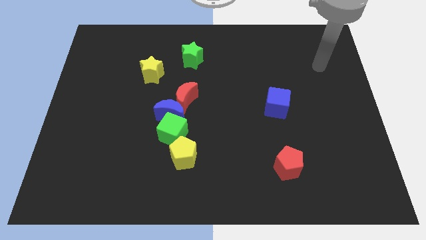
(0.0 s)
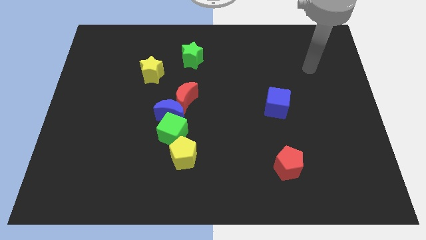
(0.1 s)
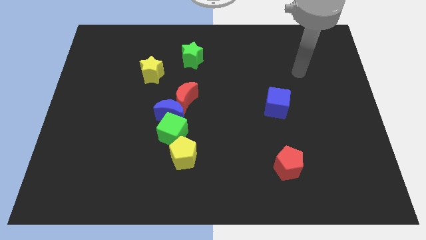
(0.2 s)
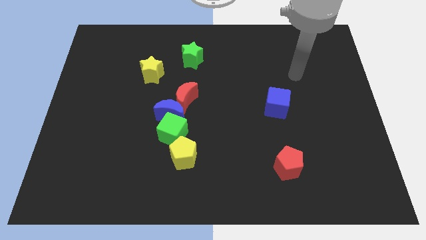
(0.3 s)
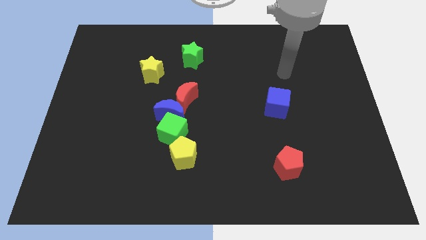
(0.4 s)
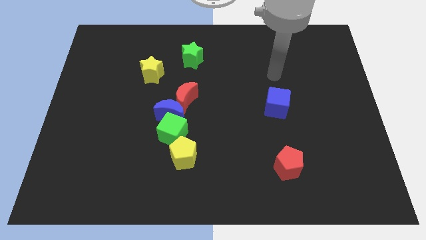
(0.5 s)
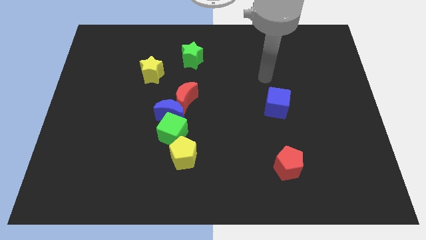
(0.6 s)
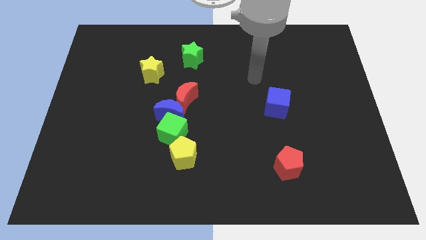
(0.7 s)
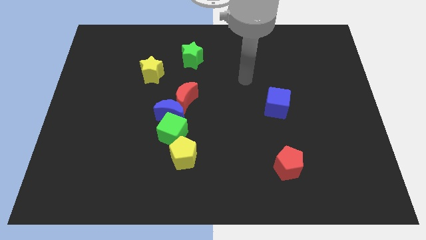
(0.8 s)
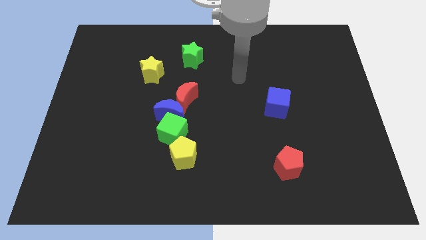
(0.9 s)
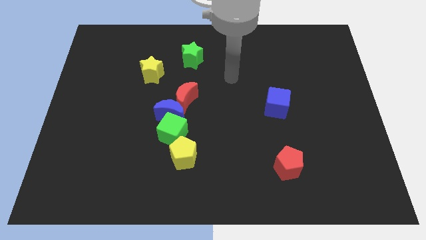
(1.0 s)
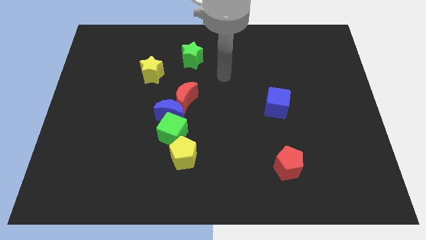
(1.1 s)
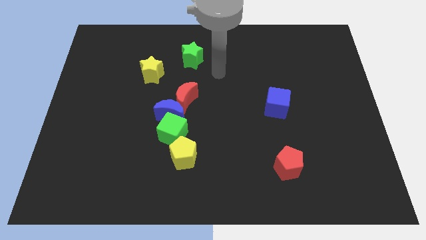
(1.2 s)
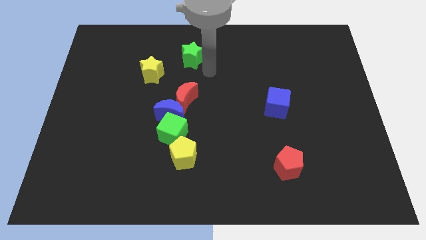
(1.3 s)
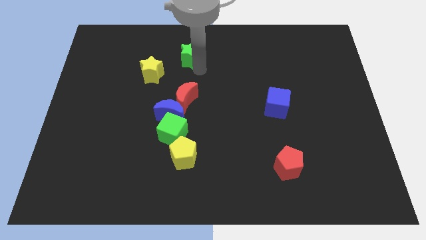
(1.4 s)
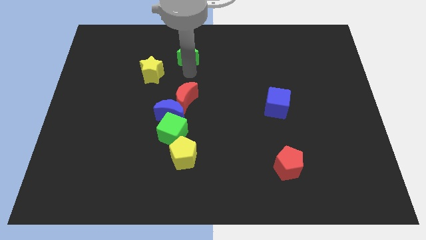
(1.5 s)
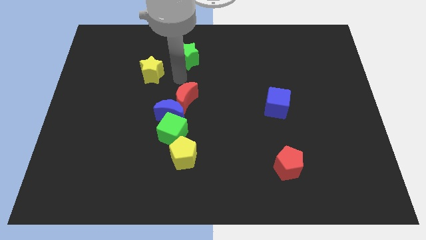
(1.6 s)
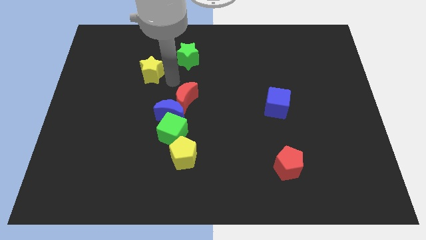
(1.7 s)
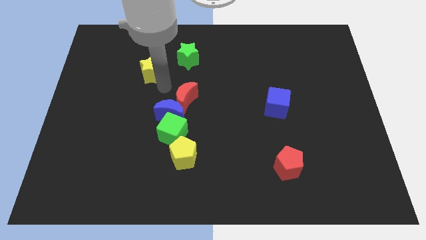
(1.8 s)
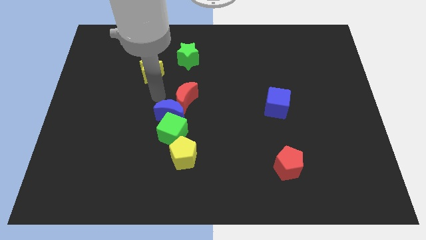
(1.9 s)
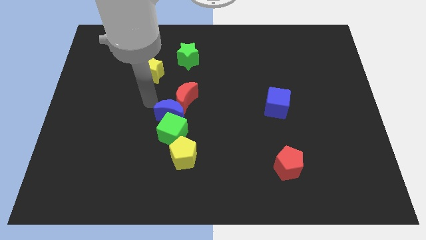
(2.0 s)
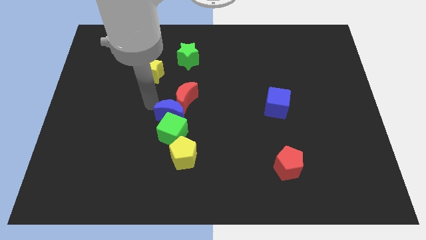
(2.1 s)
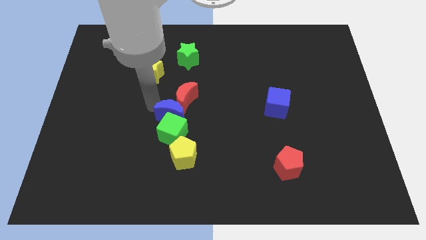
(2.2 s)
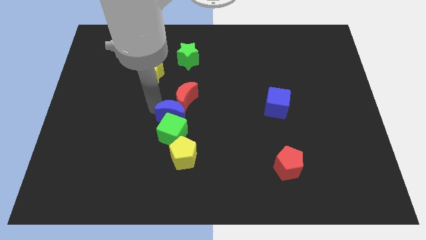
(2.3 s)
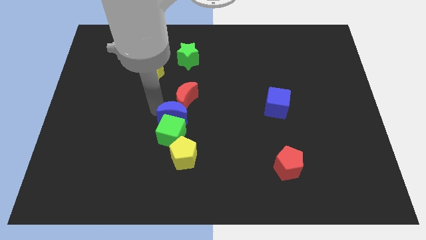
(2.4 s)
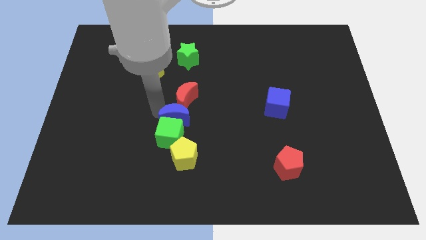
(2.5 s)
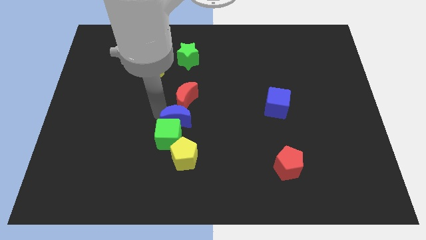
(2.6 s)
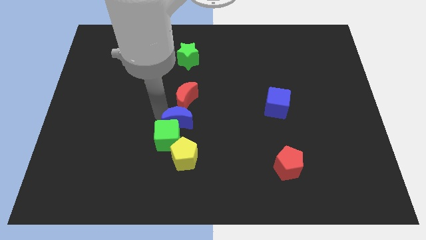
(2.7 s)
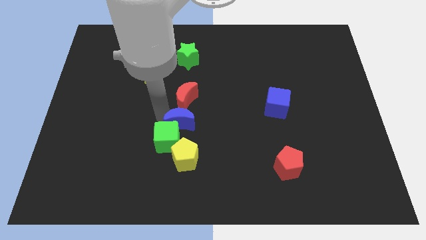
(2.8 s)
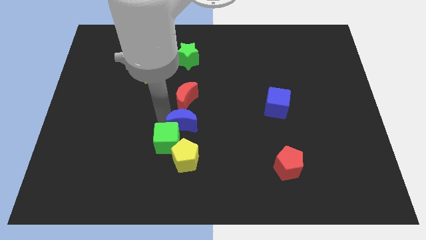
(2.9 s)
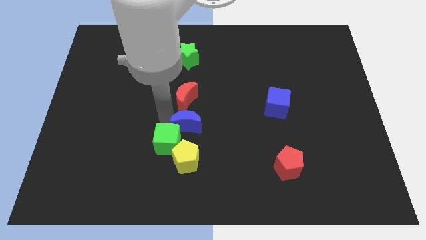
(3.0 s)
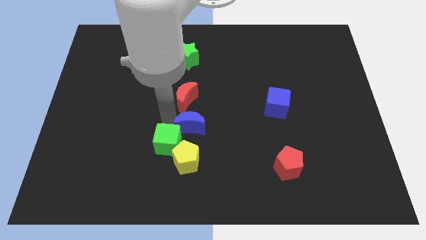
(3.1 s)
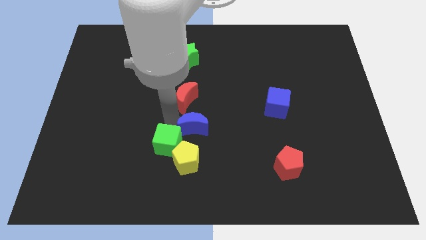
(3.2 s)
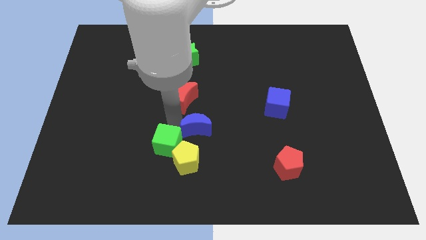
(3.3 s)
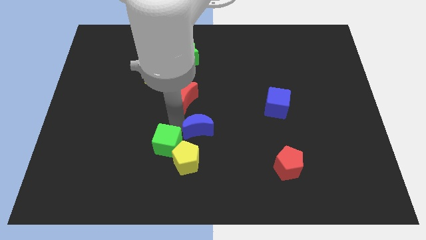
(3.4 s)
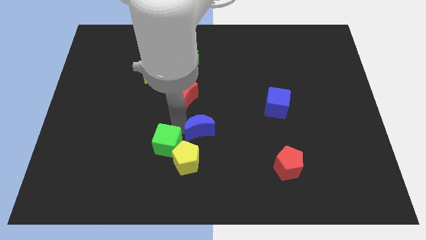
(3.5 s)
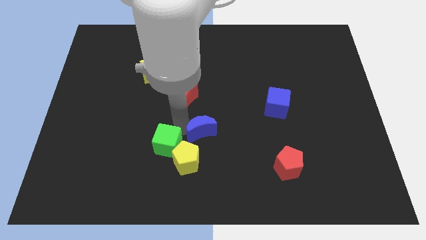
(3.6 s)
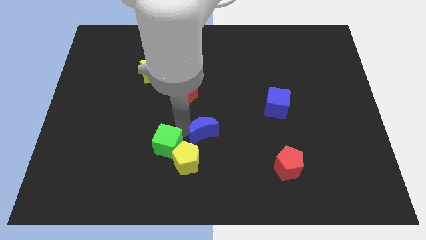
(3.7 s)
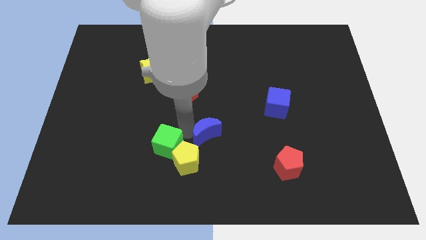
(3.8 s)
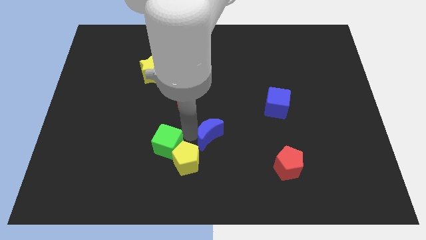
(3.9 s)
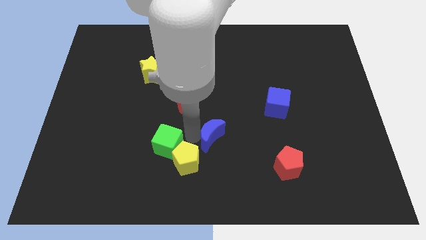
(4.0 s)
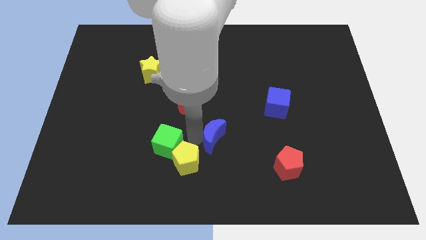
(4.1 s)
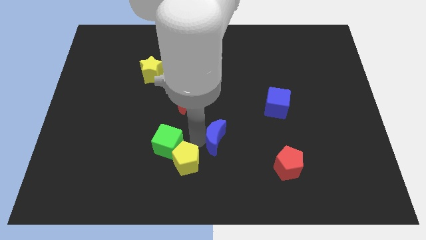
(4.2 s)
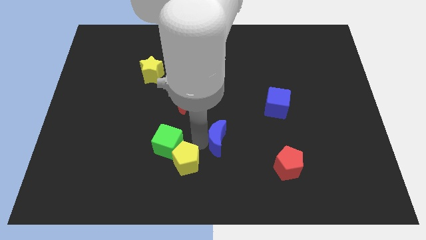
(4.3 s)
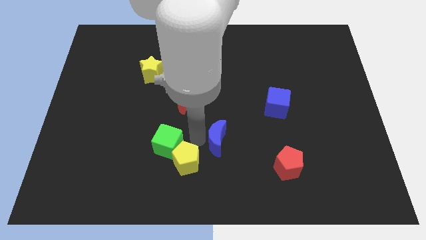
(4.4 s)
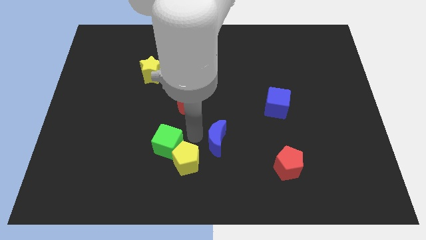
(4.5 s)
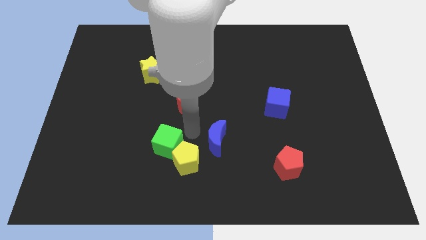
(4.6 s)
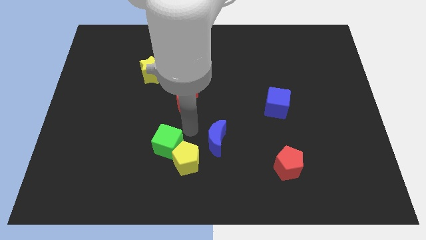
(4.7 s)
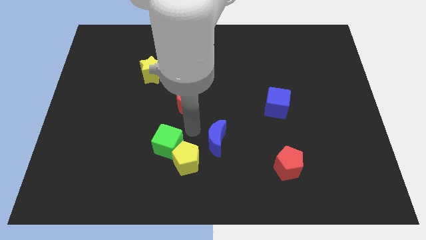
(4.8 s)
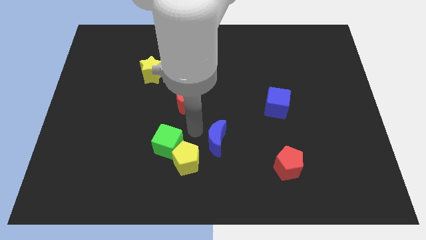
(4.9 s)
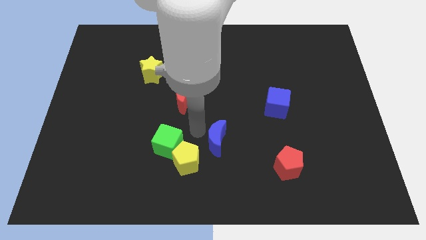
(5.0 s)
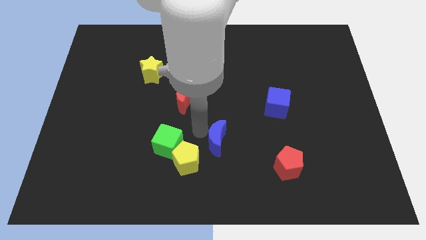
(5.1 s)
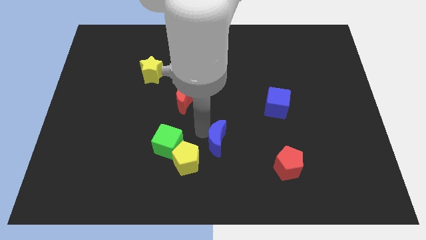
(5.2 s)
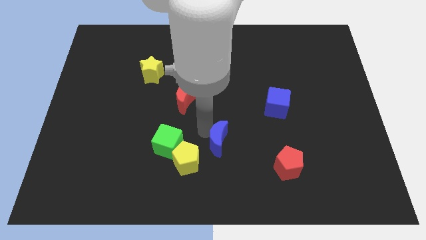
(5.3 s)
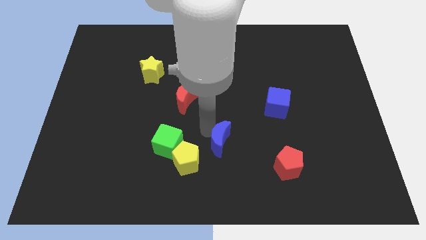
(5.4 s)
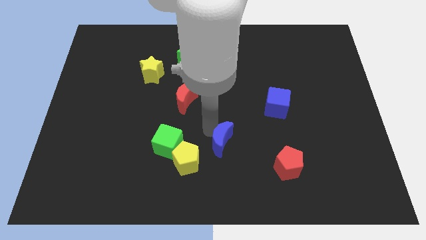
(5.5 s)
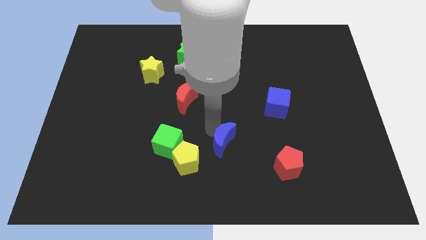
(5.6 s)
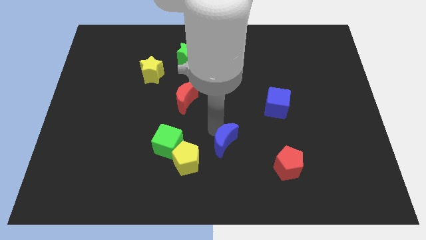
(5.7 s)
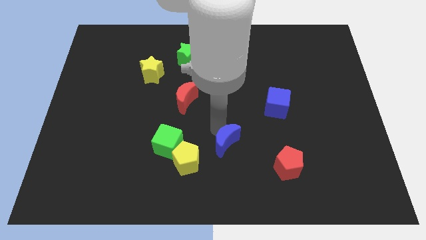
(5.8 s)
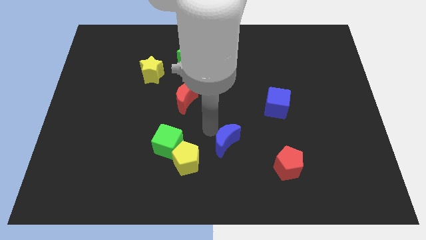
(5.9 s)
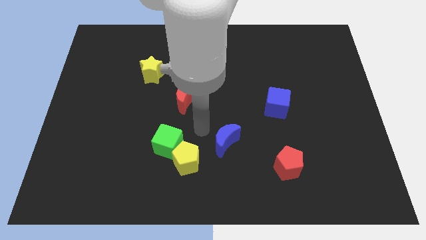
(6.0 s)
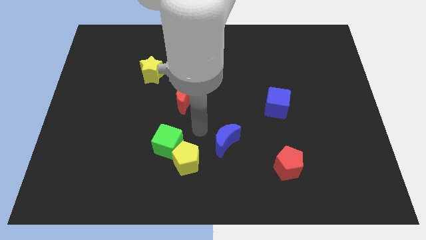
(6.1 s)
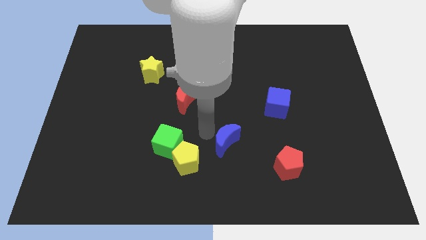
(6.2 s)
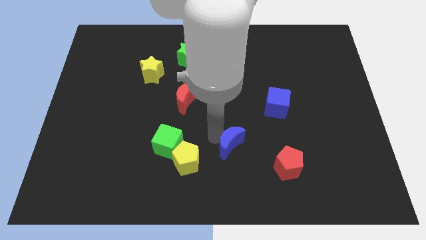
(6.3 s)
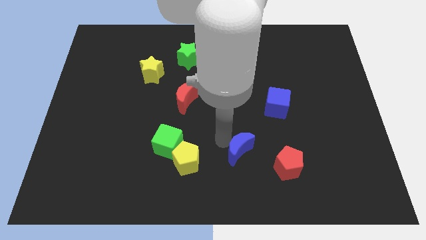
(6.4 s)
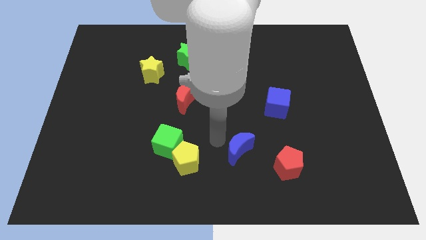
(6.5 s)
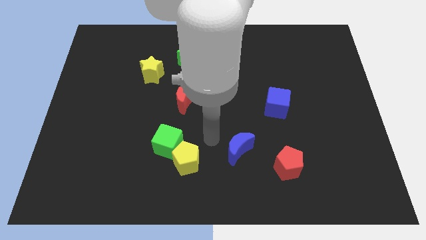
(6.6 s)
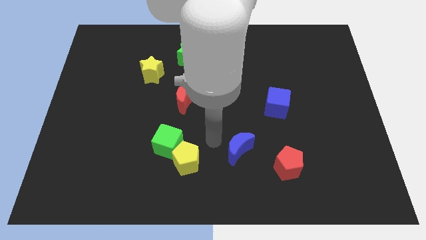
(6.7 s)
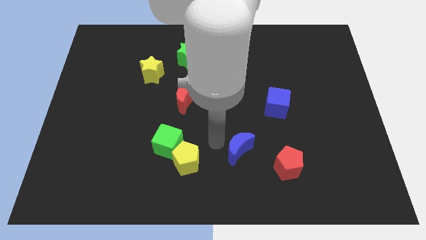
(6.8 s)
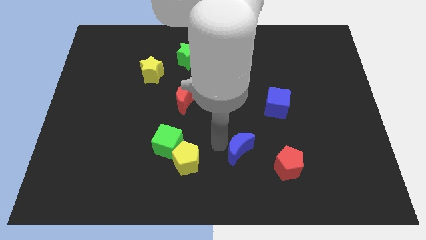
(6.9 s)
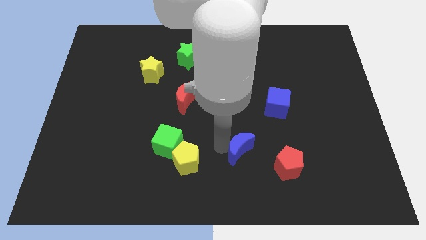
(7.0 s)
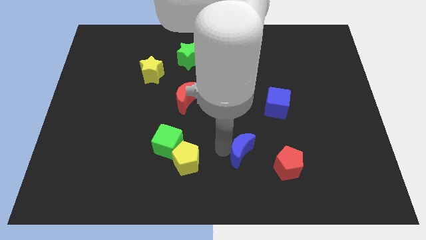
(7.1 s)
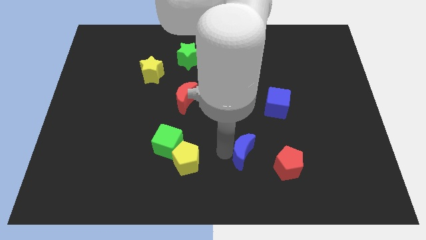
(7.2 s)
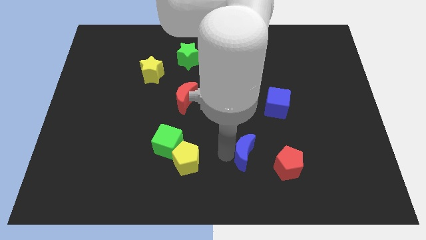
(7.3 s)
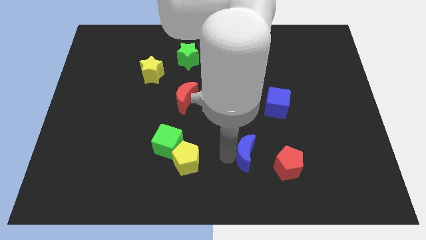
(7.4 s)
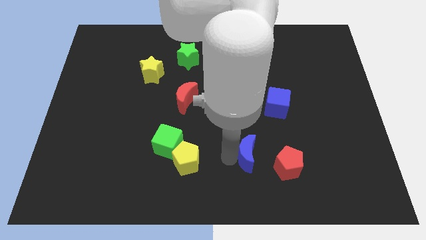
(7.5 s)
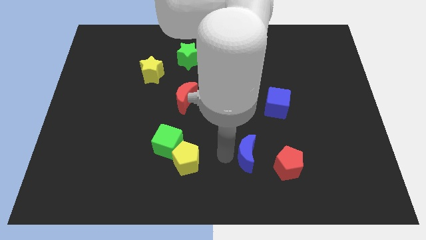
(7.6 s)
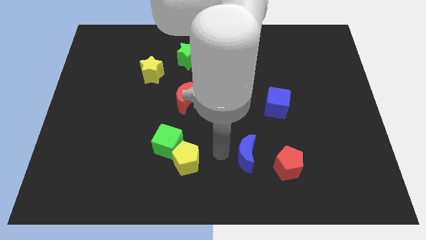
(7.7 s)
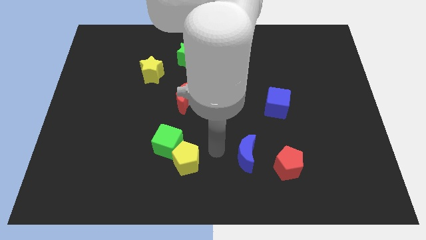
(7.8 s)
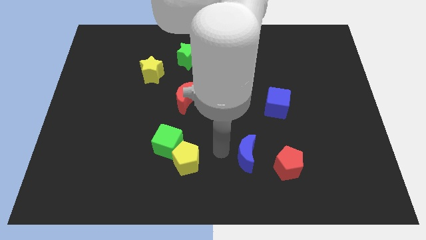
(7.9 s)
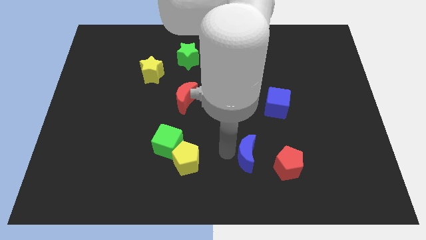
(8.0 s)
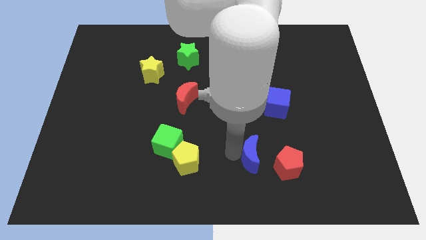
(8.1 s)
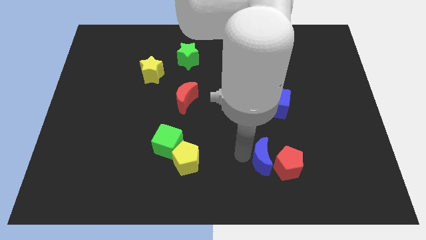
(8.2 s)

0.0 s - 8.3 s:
move the blue moon next to the red pentagon
